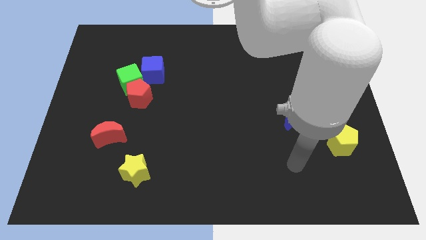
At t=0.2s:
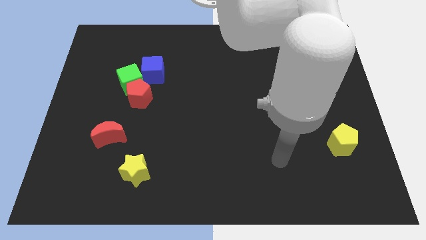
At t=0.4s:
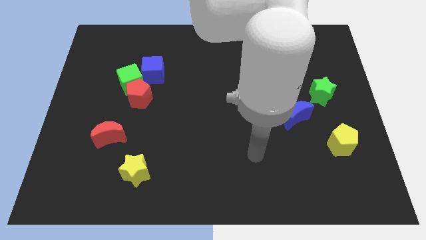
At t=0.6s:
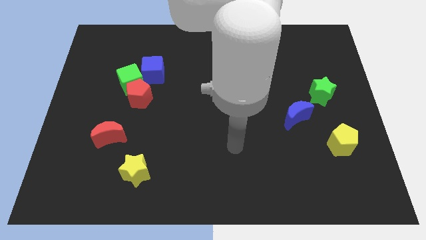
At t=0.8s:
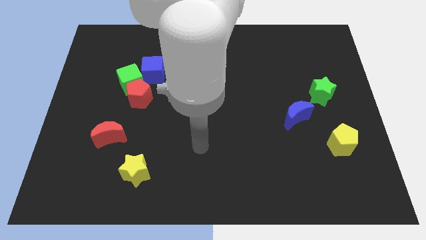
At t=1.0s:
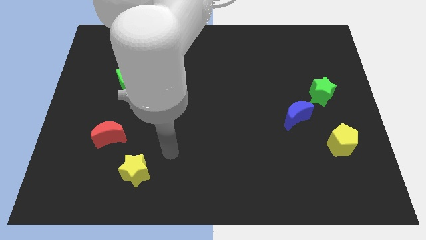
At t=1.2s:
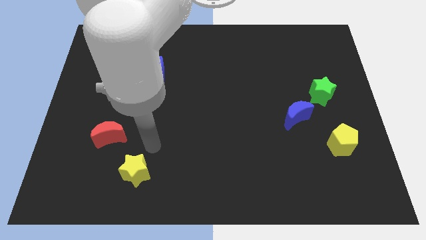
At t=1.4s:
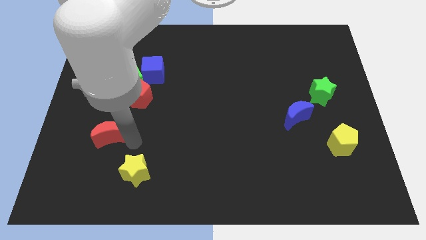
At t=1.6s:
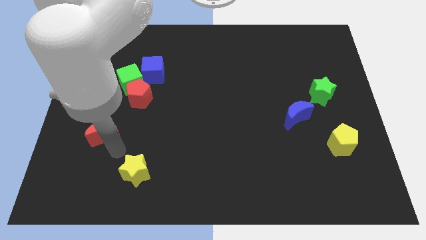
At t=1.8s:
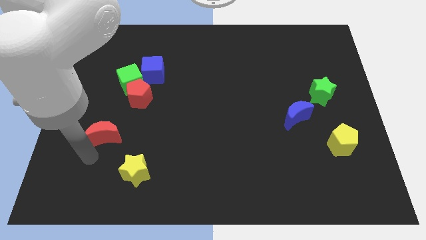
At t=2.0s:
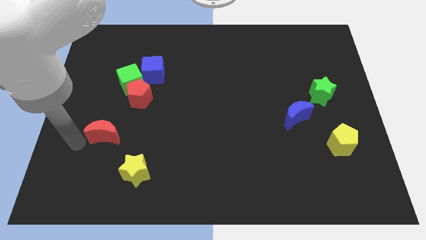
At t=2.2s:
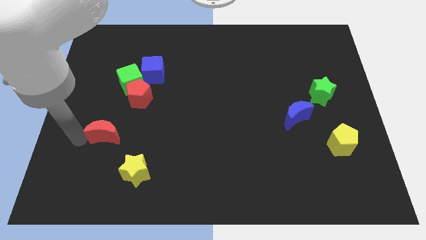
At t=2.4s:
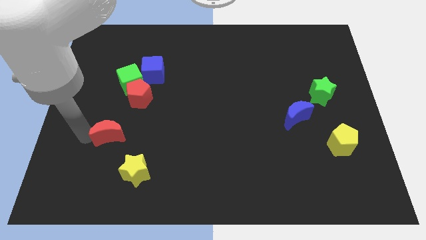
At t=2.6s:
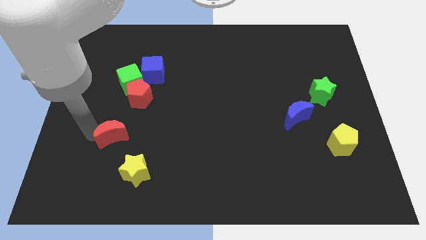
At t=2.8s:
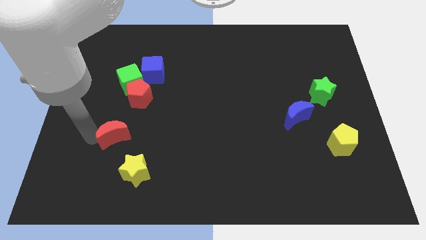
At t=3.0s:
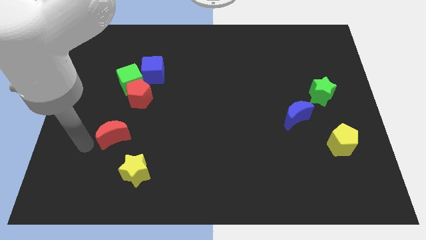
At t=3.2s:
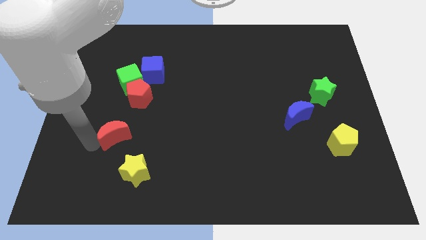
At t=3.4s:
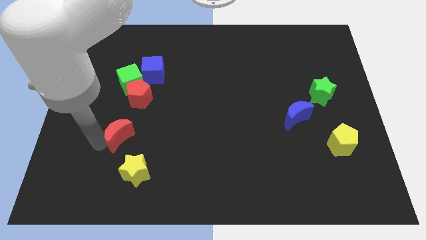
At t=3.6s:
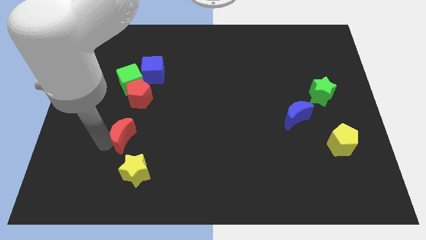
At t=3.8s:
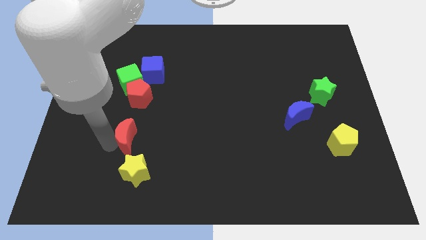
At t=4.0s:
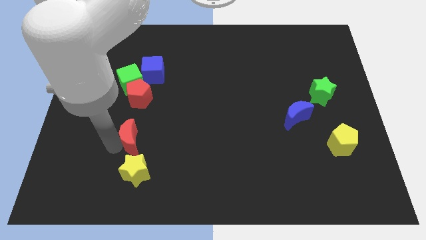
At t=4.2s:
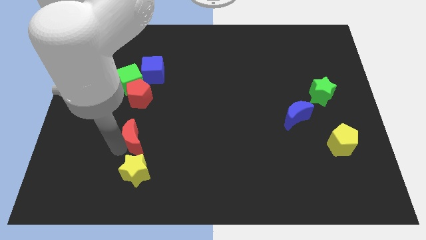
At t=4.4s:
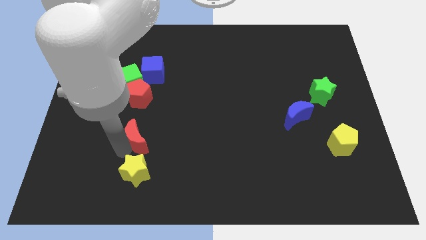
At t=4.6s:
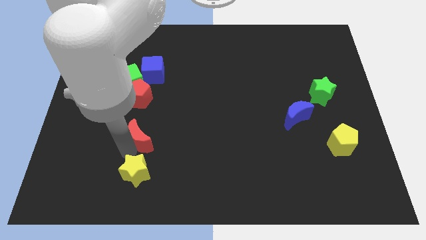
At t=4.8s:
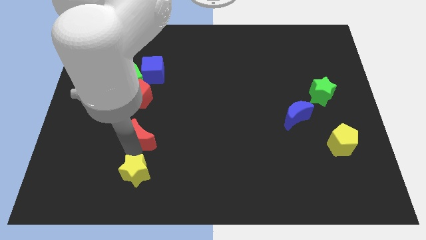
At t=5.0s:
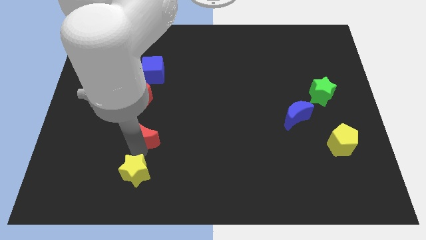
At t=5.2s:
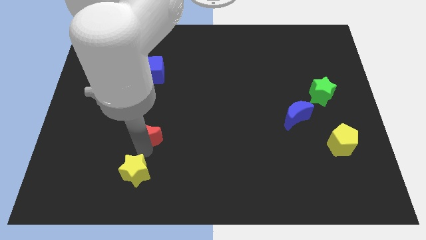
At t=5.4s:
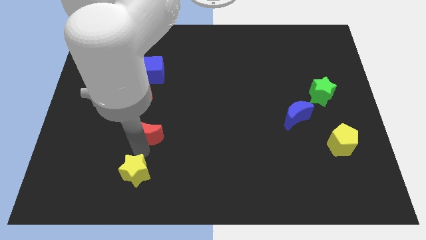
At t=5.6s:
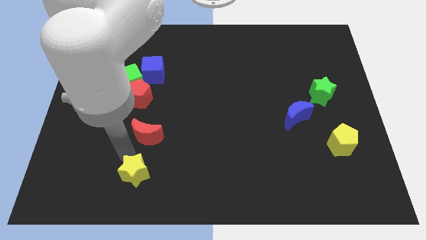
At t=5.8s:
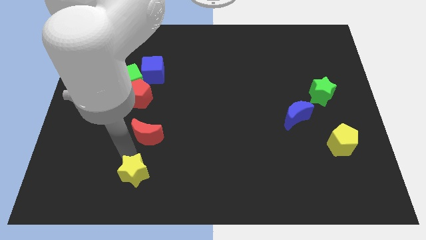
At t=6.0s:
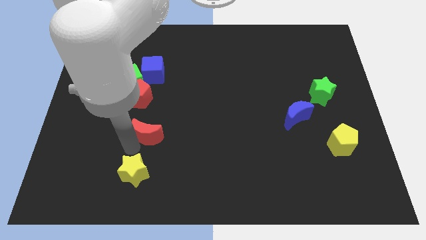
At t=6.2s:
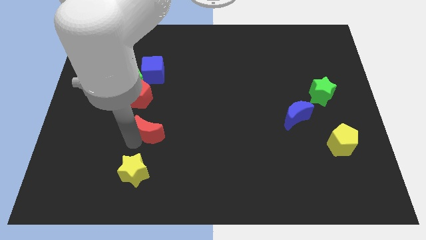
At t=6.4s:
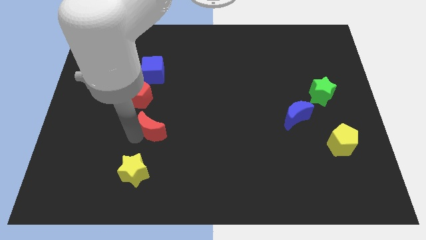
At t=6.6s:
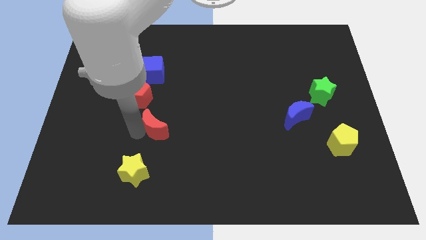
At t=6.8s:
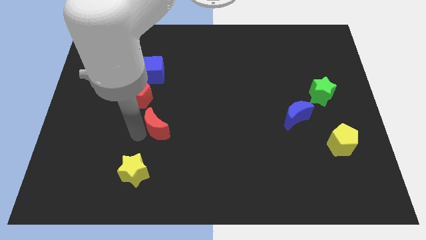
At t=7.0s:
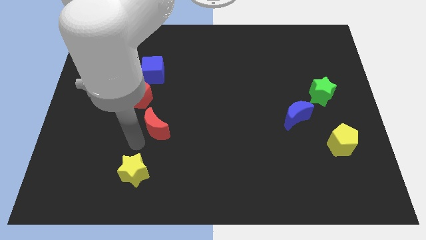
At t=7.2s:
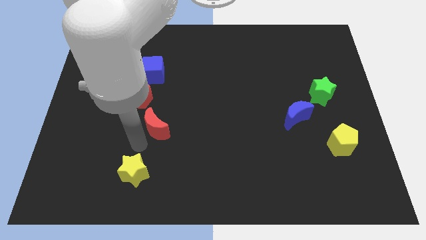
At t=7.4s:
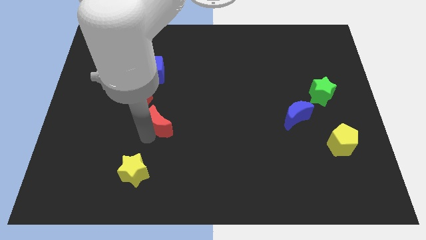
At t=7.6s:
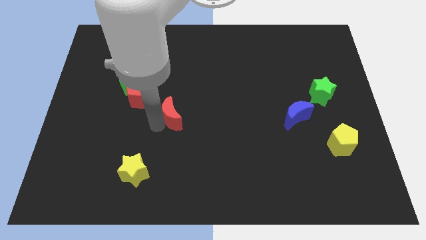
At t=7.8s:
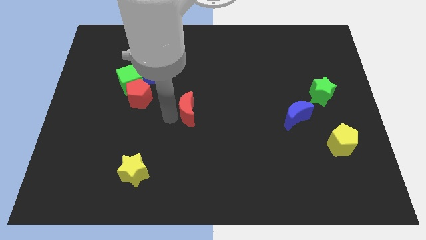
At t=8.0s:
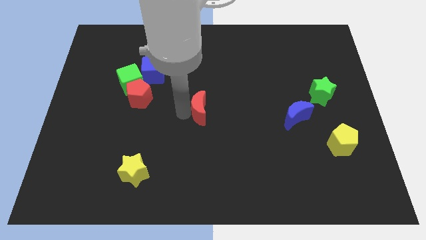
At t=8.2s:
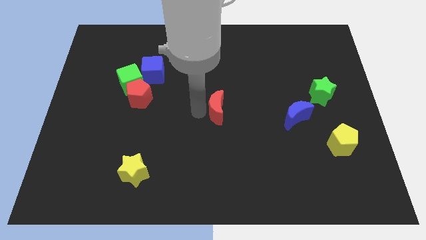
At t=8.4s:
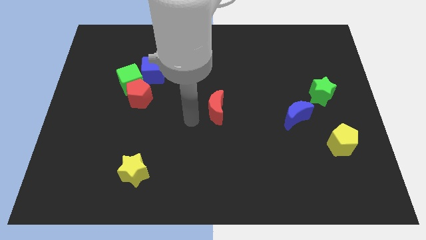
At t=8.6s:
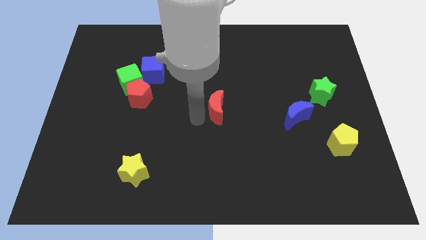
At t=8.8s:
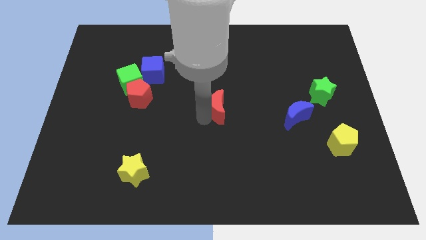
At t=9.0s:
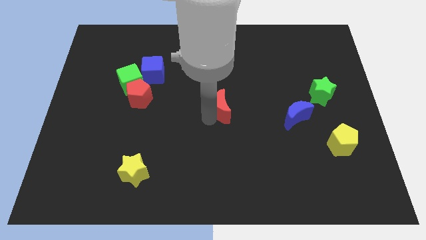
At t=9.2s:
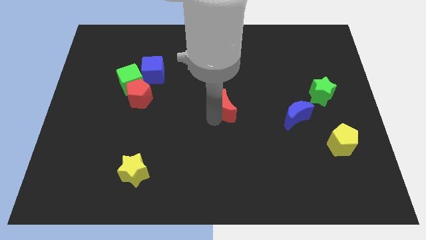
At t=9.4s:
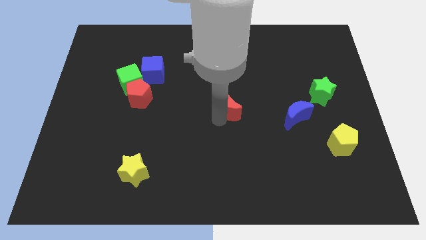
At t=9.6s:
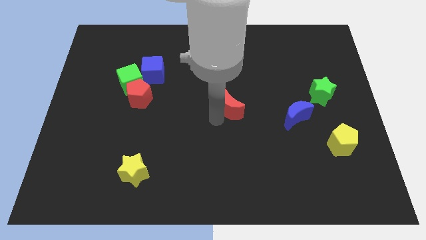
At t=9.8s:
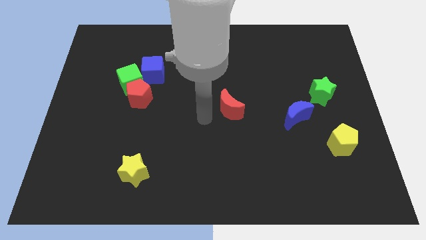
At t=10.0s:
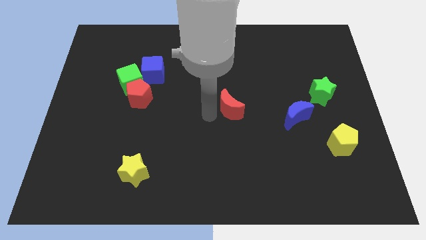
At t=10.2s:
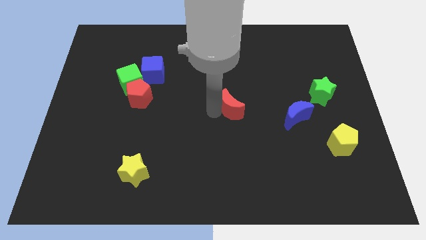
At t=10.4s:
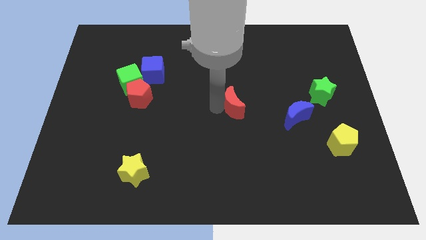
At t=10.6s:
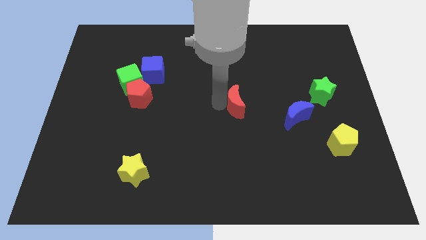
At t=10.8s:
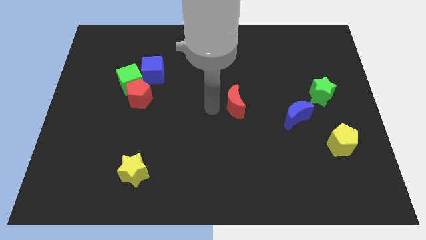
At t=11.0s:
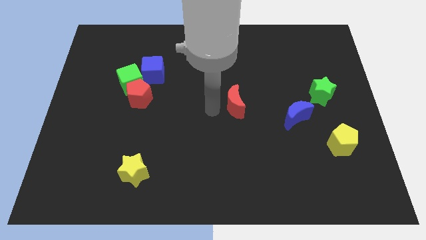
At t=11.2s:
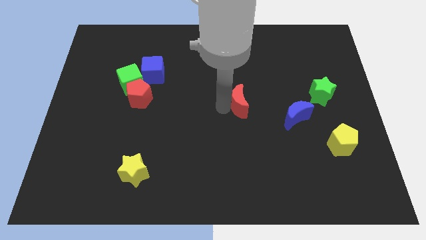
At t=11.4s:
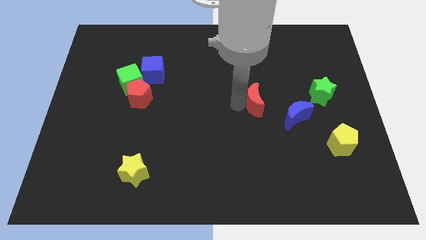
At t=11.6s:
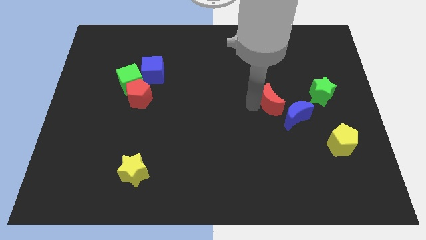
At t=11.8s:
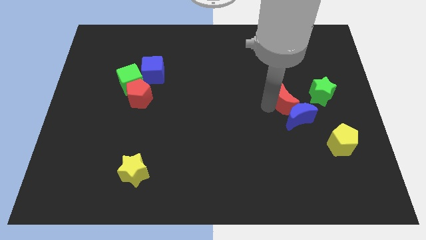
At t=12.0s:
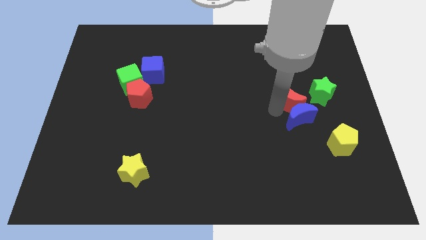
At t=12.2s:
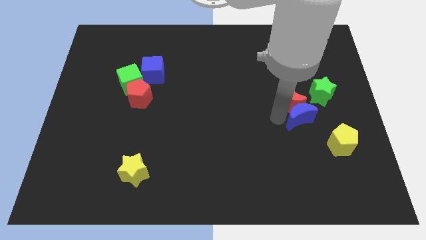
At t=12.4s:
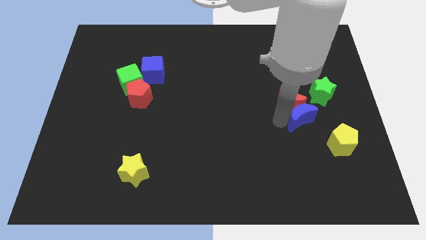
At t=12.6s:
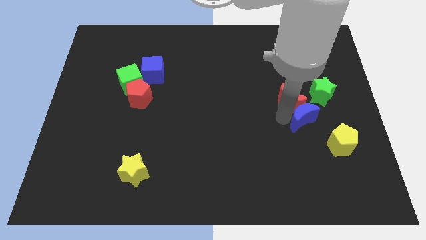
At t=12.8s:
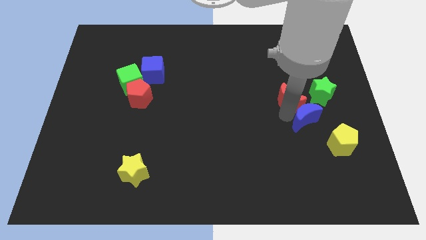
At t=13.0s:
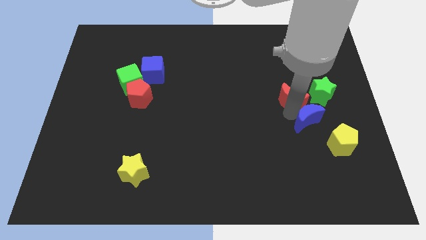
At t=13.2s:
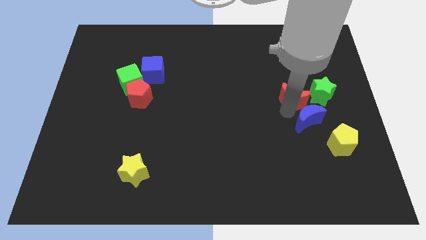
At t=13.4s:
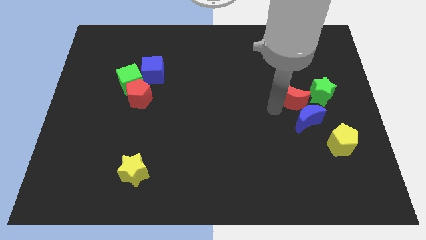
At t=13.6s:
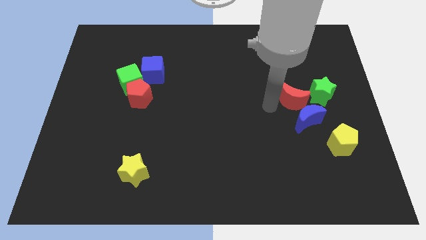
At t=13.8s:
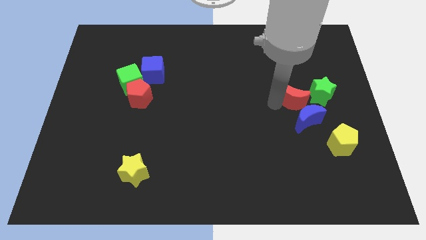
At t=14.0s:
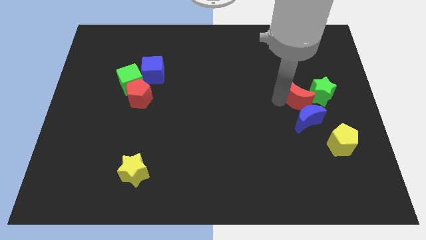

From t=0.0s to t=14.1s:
move the red moon to the green star
